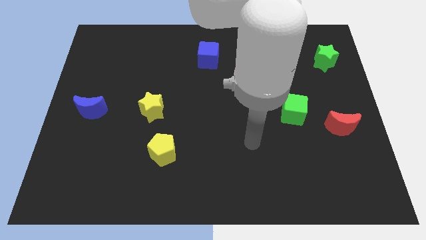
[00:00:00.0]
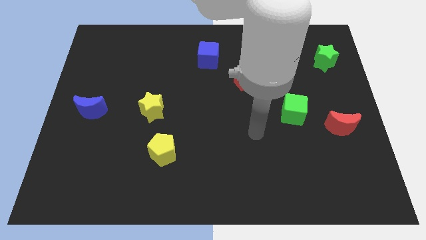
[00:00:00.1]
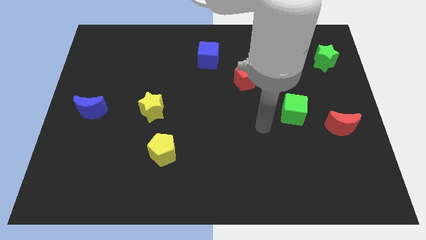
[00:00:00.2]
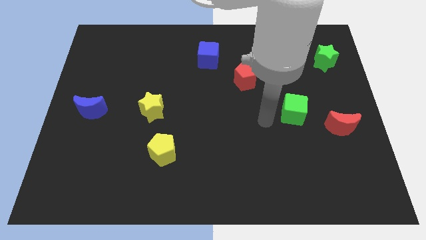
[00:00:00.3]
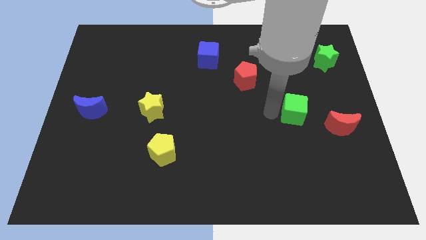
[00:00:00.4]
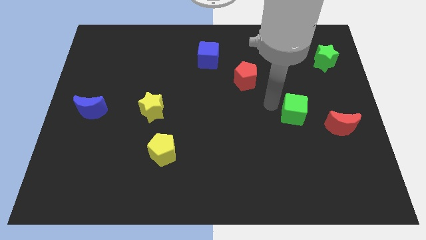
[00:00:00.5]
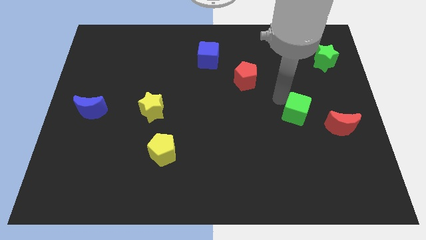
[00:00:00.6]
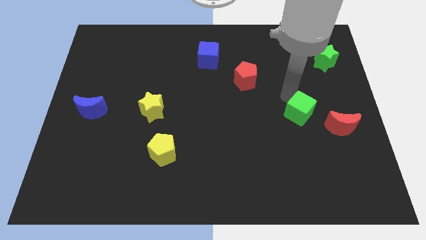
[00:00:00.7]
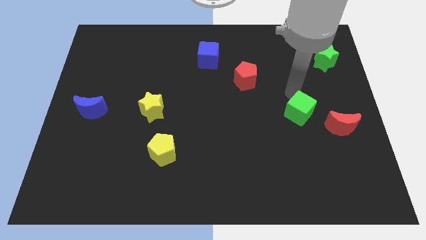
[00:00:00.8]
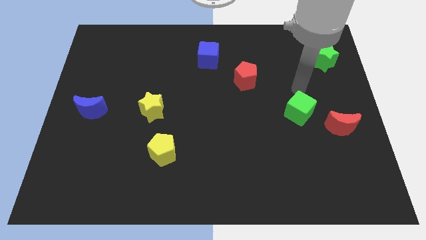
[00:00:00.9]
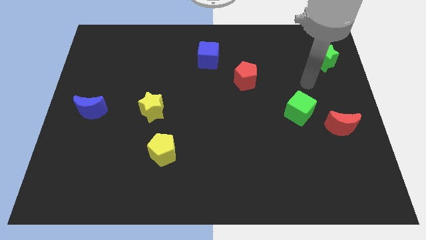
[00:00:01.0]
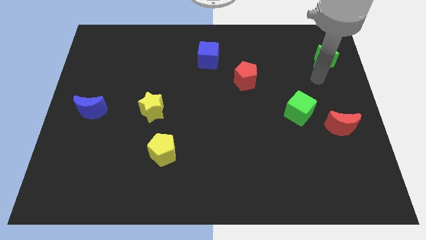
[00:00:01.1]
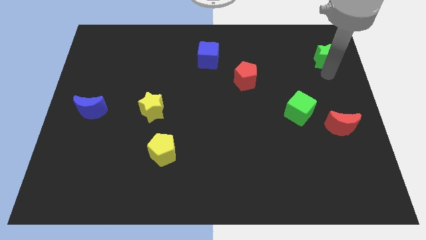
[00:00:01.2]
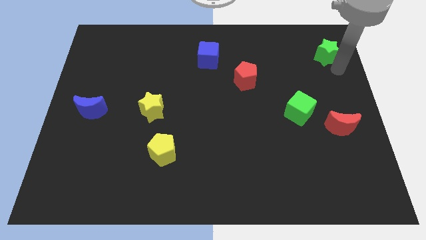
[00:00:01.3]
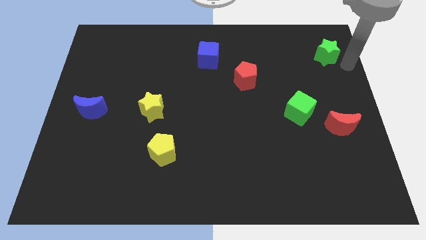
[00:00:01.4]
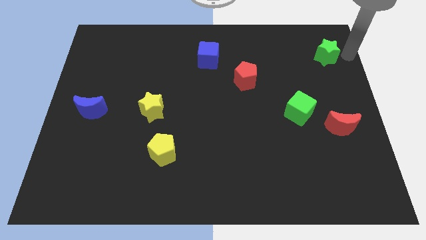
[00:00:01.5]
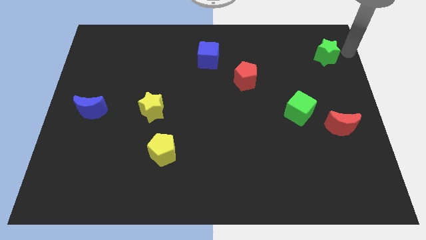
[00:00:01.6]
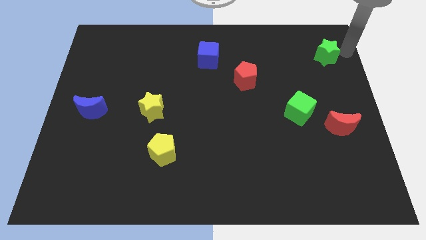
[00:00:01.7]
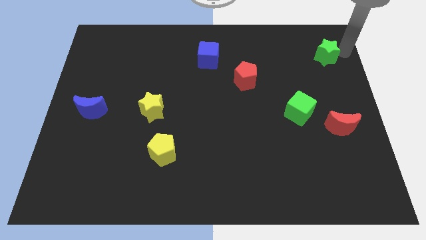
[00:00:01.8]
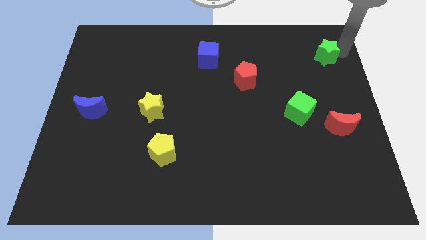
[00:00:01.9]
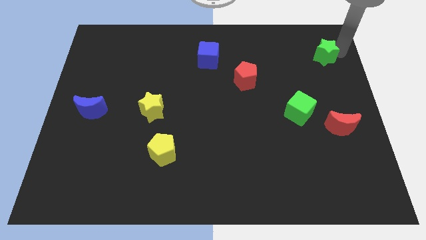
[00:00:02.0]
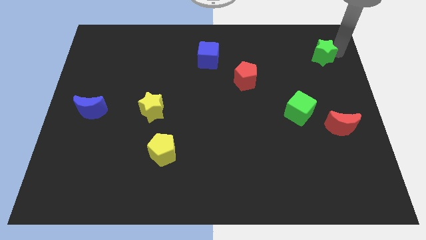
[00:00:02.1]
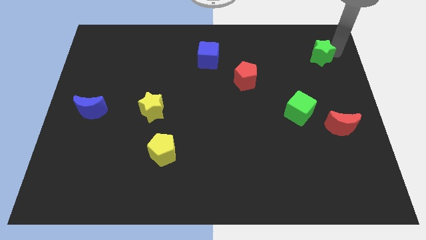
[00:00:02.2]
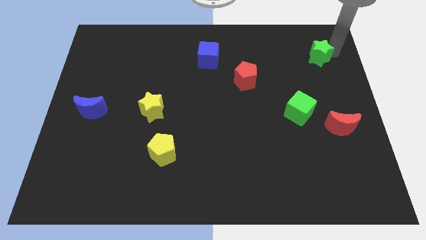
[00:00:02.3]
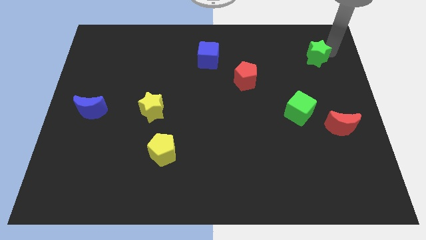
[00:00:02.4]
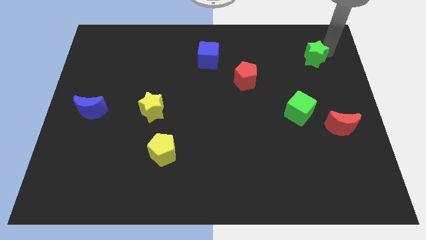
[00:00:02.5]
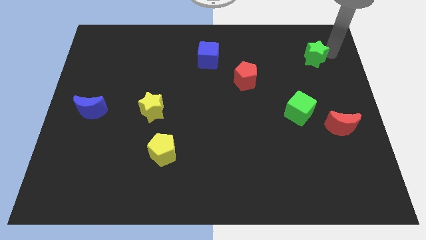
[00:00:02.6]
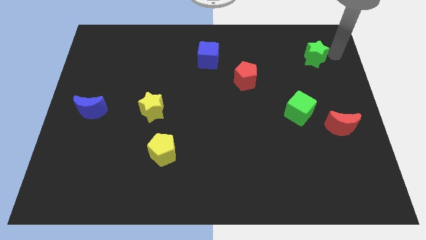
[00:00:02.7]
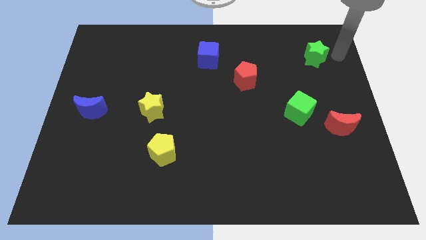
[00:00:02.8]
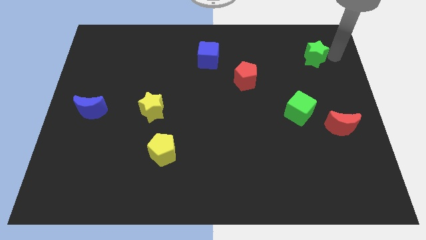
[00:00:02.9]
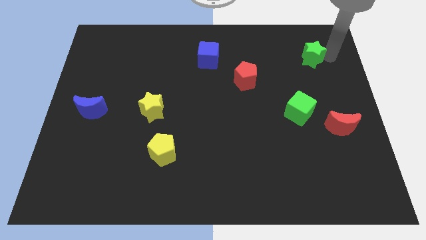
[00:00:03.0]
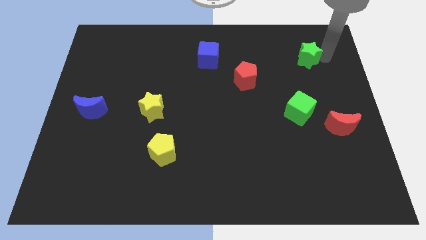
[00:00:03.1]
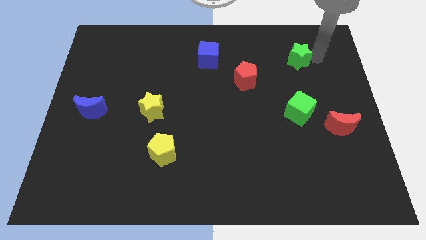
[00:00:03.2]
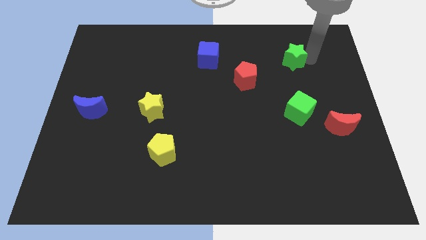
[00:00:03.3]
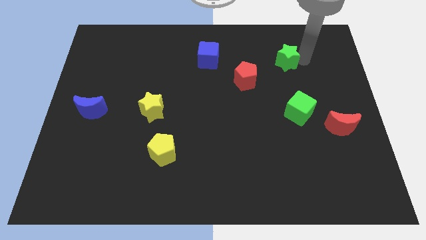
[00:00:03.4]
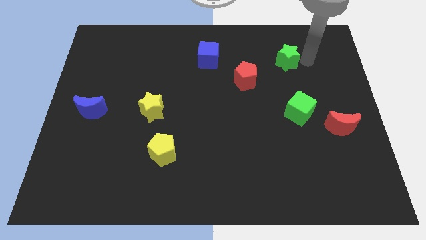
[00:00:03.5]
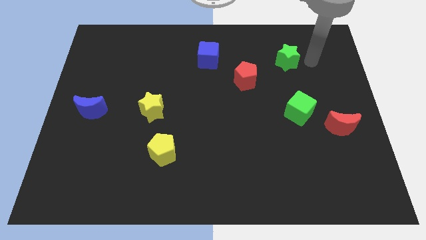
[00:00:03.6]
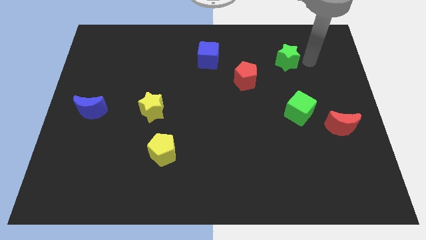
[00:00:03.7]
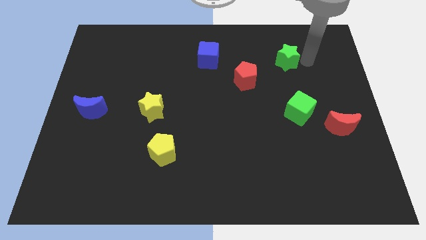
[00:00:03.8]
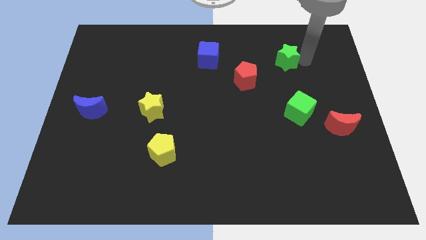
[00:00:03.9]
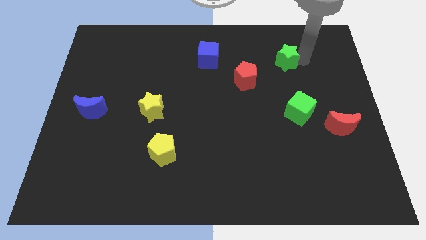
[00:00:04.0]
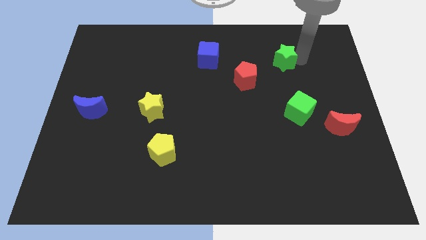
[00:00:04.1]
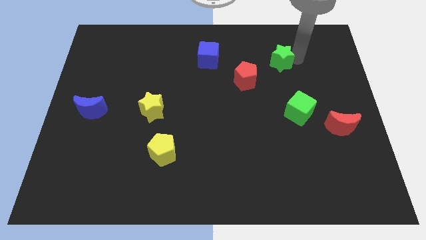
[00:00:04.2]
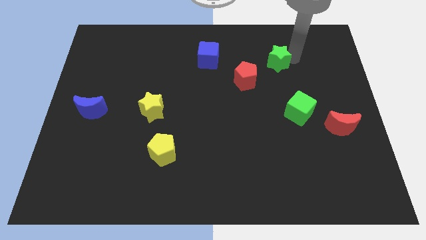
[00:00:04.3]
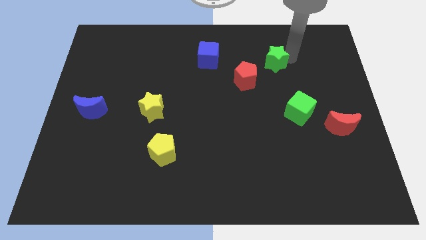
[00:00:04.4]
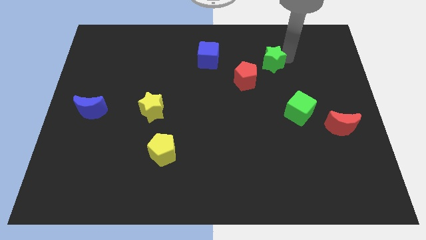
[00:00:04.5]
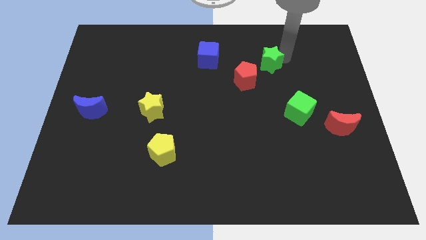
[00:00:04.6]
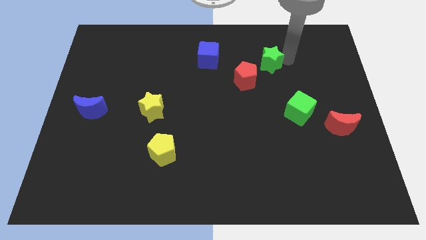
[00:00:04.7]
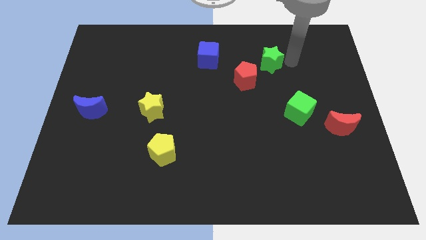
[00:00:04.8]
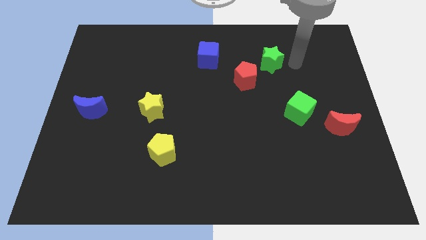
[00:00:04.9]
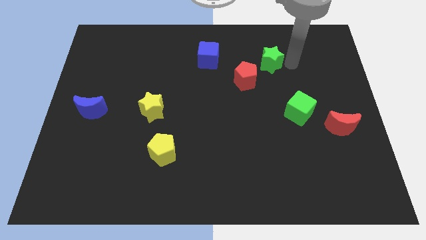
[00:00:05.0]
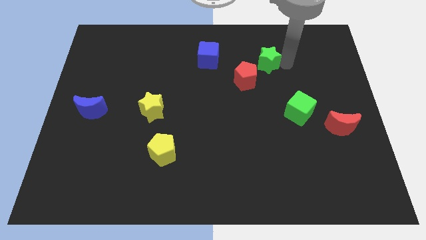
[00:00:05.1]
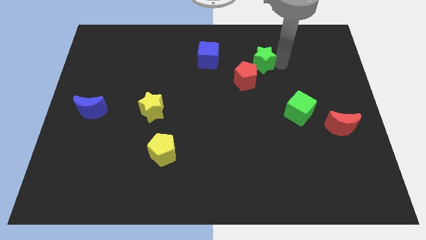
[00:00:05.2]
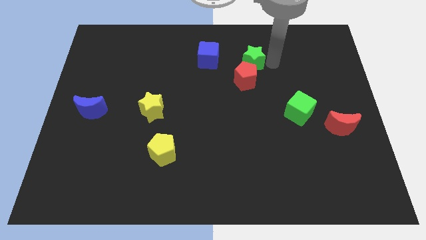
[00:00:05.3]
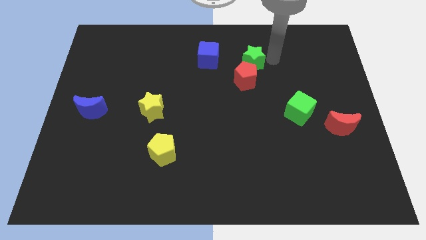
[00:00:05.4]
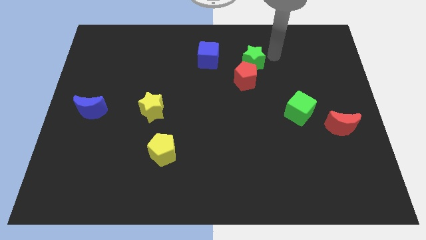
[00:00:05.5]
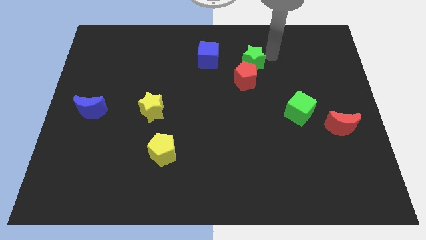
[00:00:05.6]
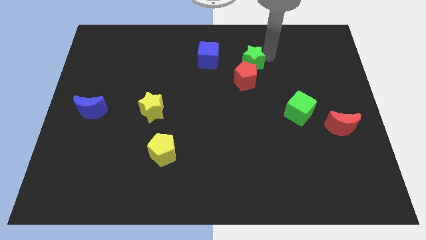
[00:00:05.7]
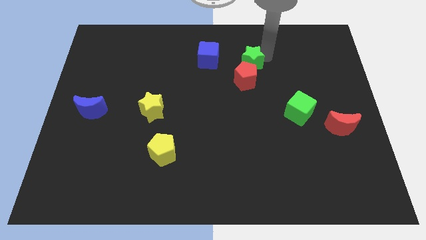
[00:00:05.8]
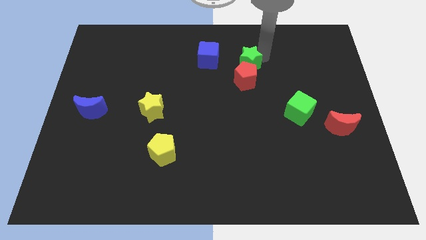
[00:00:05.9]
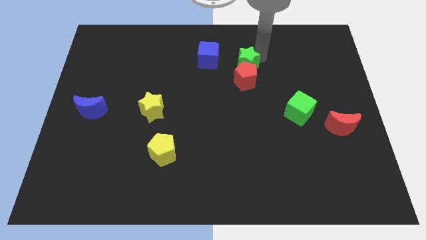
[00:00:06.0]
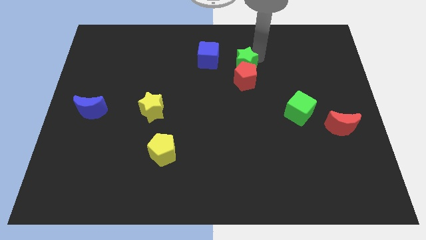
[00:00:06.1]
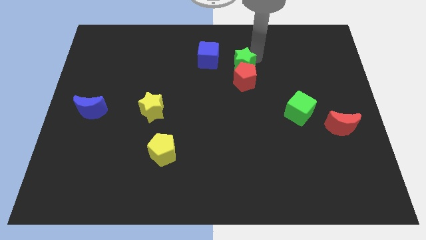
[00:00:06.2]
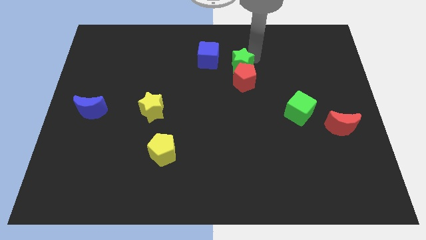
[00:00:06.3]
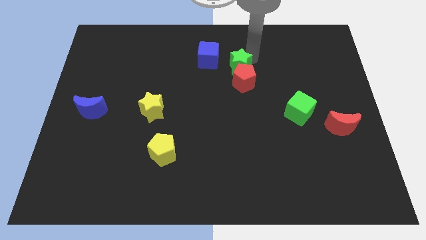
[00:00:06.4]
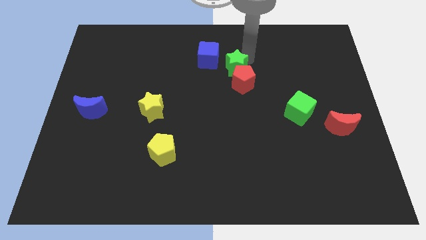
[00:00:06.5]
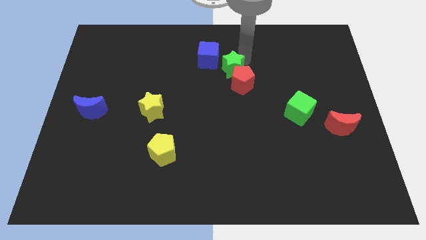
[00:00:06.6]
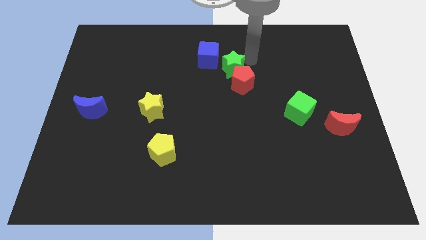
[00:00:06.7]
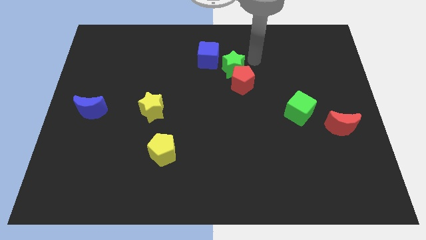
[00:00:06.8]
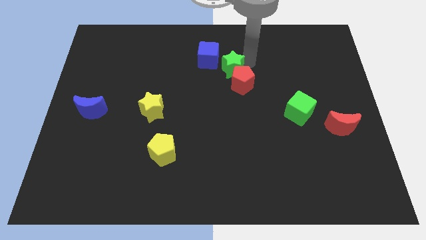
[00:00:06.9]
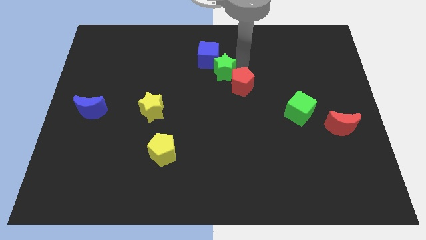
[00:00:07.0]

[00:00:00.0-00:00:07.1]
slide the green star just left of the red pentagon
